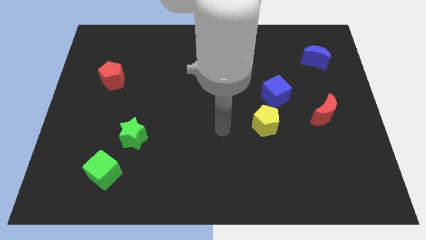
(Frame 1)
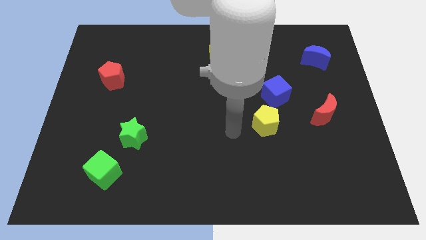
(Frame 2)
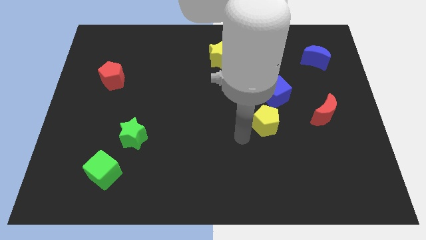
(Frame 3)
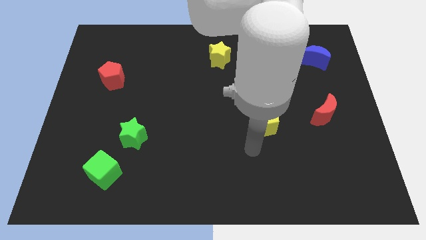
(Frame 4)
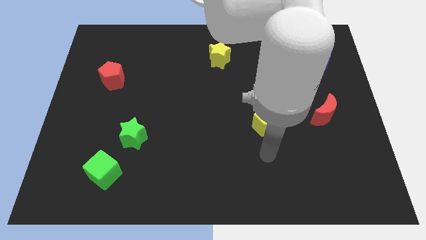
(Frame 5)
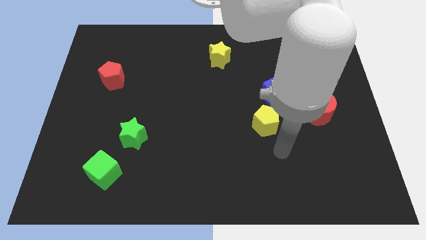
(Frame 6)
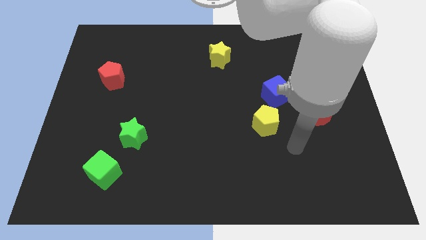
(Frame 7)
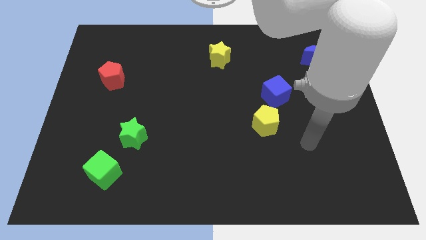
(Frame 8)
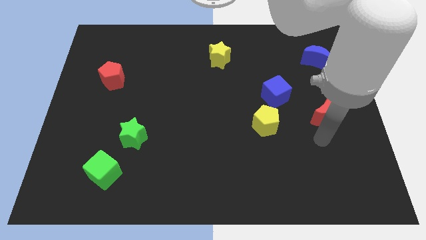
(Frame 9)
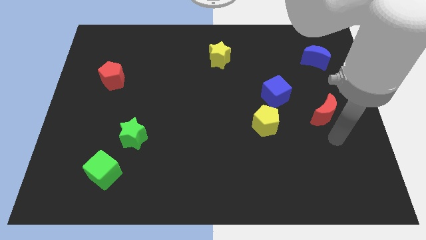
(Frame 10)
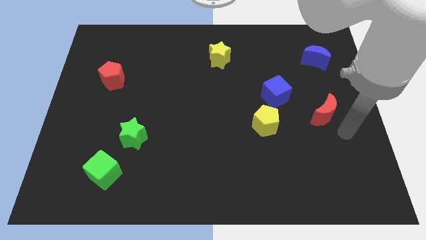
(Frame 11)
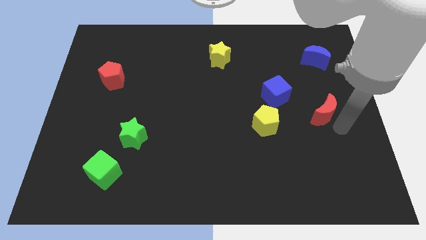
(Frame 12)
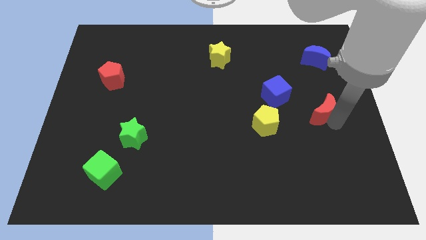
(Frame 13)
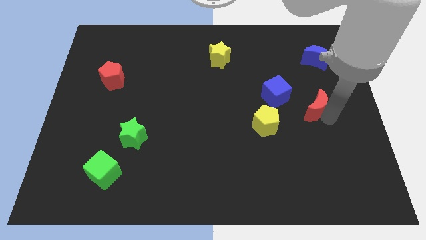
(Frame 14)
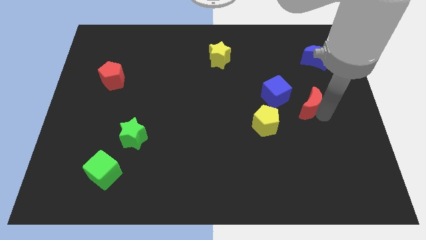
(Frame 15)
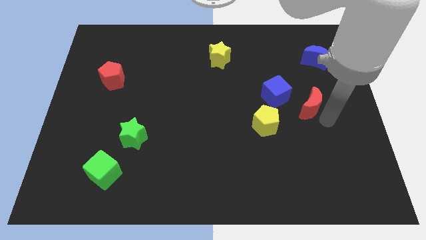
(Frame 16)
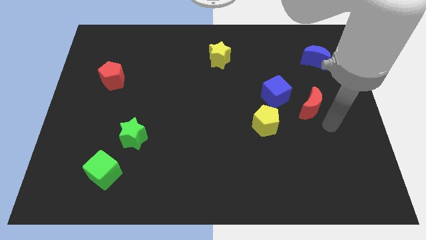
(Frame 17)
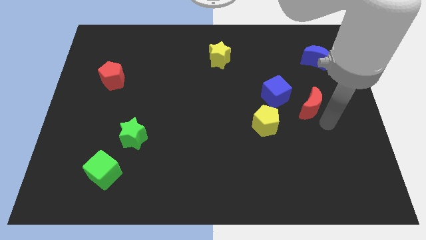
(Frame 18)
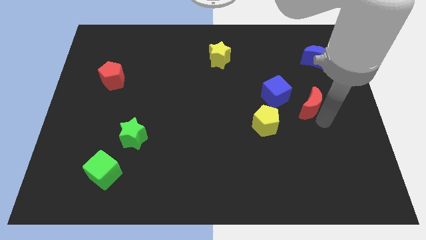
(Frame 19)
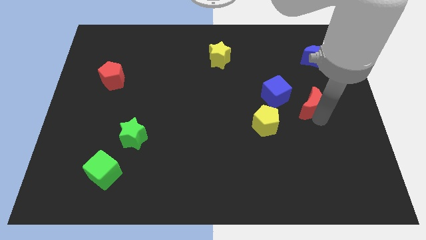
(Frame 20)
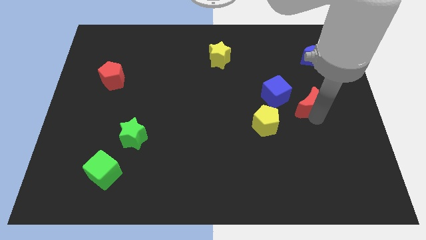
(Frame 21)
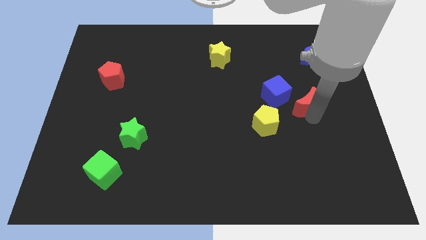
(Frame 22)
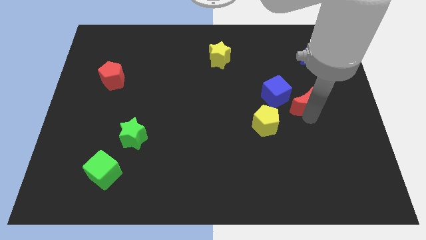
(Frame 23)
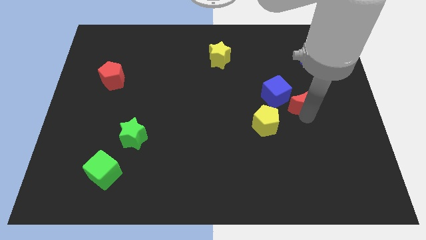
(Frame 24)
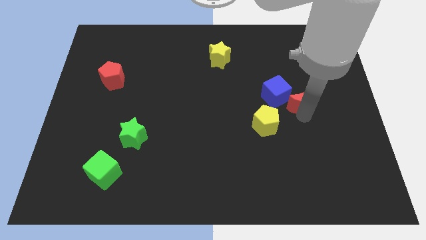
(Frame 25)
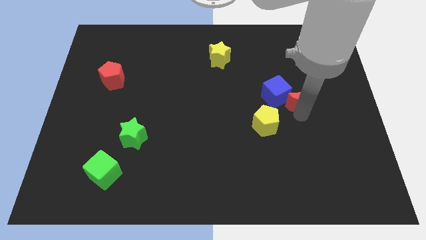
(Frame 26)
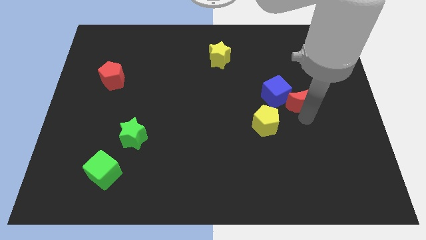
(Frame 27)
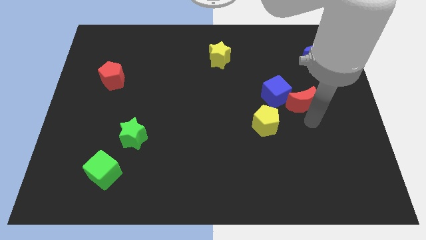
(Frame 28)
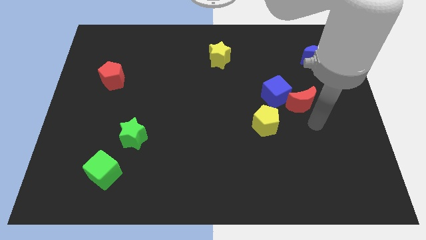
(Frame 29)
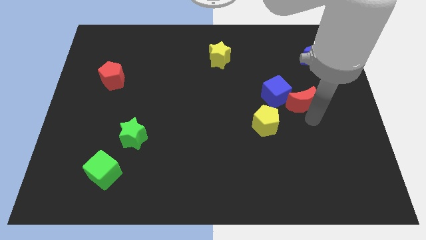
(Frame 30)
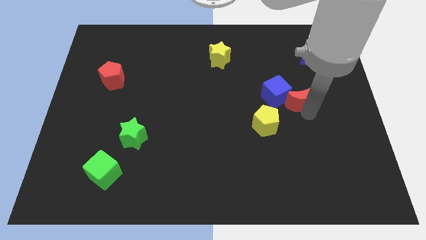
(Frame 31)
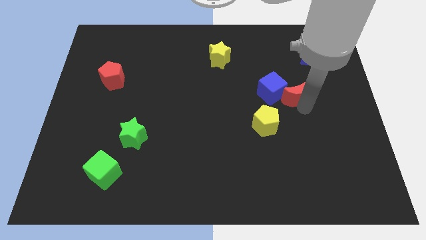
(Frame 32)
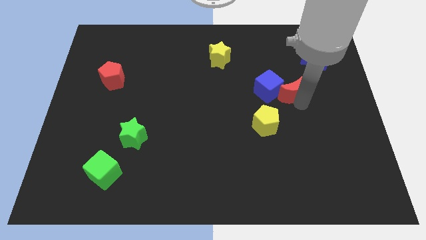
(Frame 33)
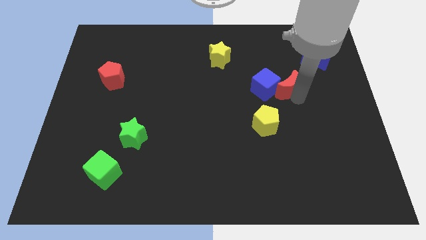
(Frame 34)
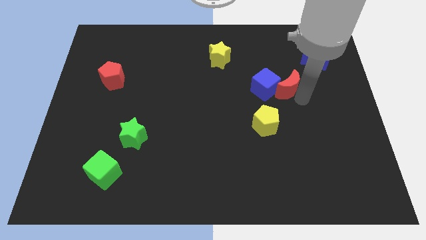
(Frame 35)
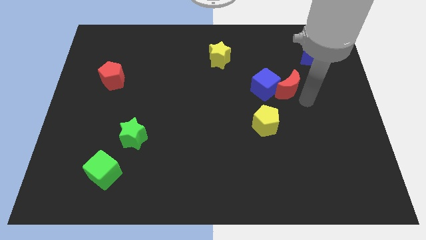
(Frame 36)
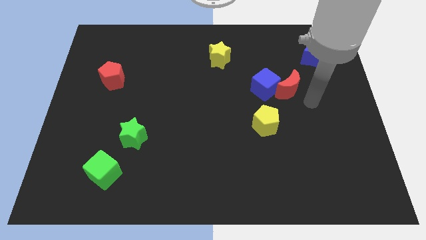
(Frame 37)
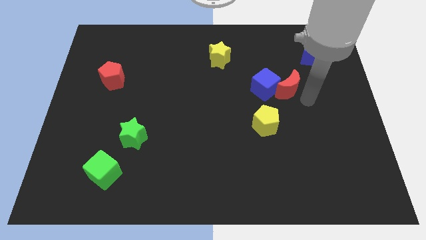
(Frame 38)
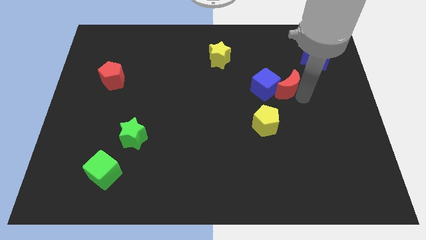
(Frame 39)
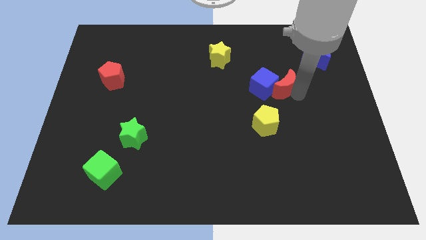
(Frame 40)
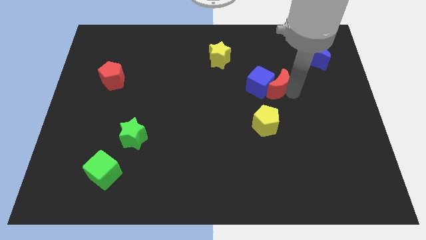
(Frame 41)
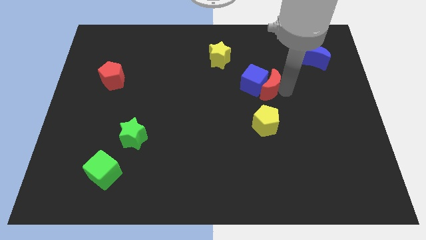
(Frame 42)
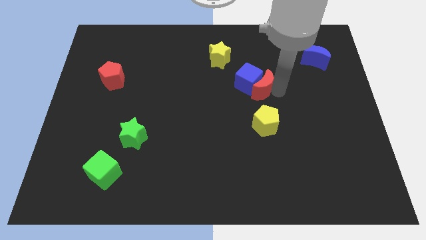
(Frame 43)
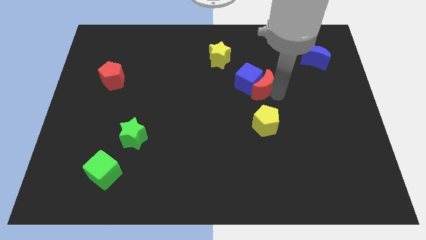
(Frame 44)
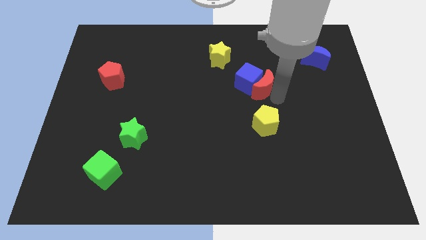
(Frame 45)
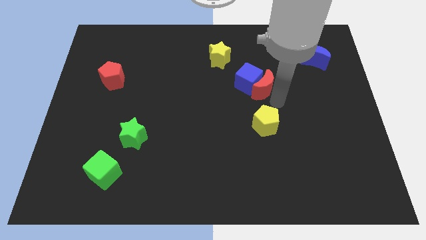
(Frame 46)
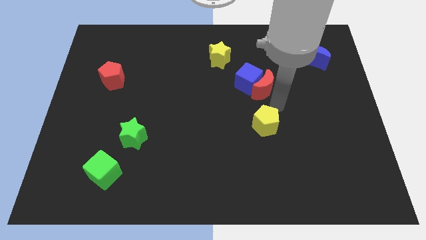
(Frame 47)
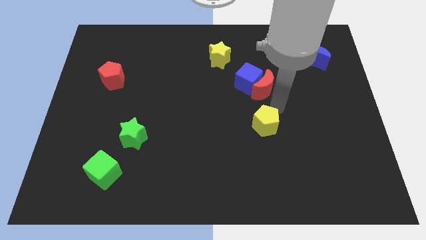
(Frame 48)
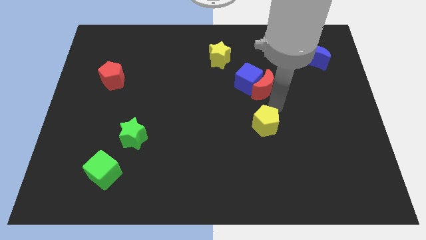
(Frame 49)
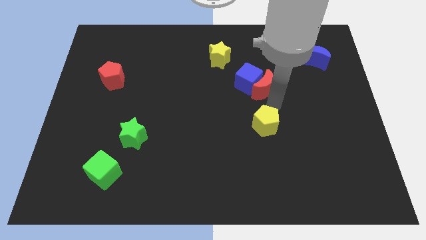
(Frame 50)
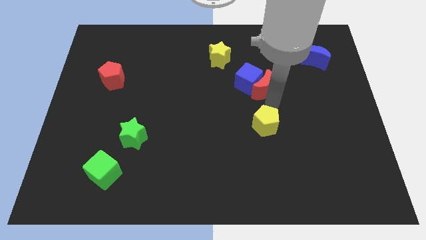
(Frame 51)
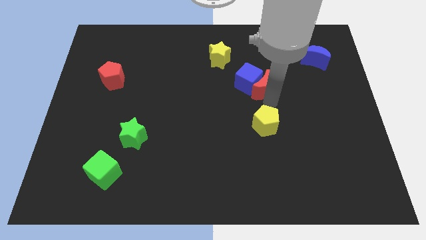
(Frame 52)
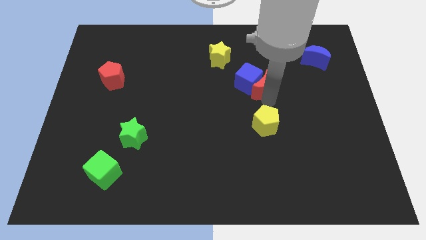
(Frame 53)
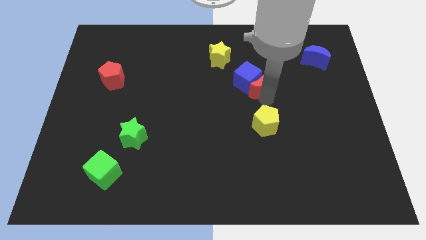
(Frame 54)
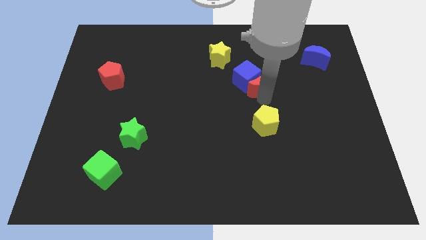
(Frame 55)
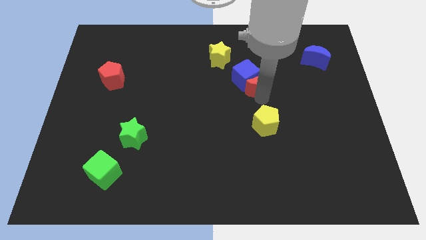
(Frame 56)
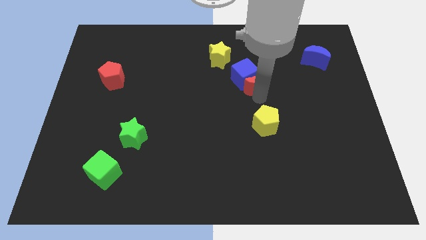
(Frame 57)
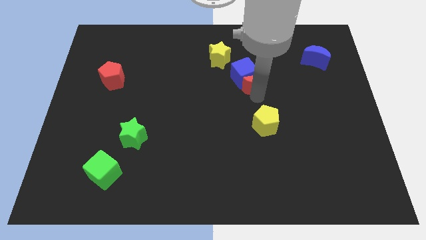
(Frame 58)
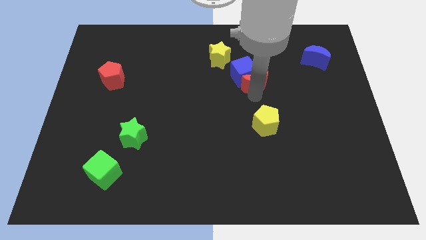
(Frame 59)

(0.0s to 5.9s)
push the red moon to the bottom right of the yellow star

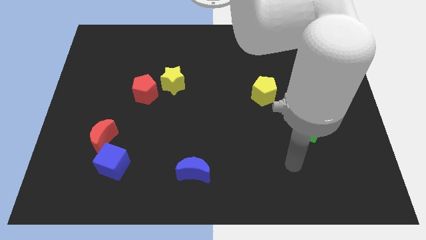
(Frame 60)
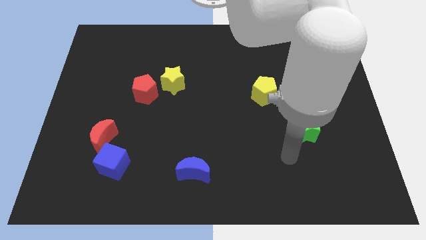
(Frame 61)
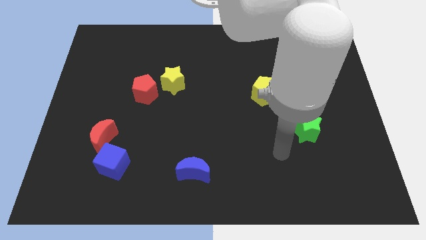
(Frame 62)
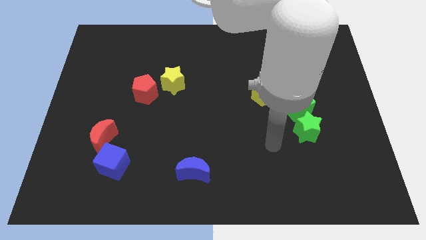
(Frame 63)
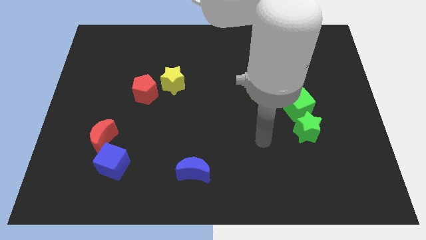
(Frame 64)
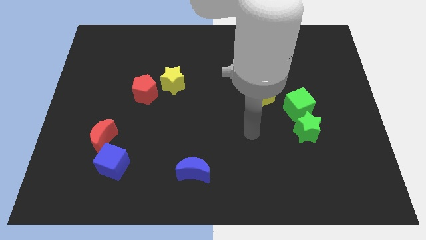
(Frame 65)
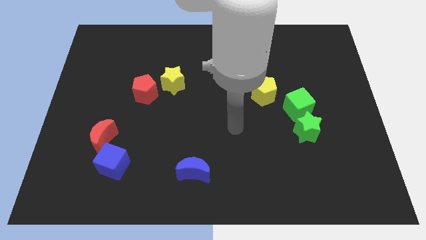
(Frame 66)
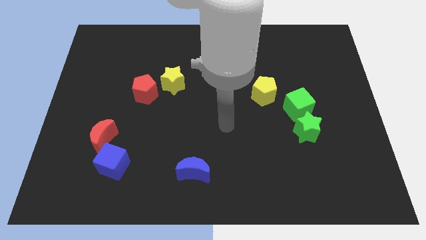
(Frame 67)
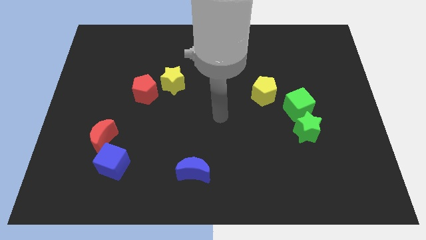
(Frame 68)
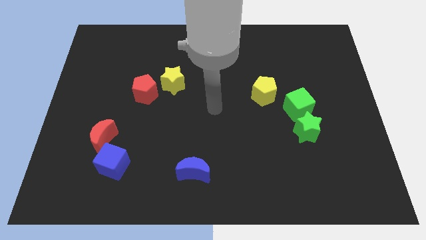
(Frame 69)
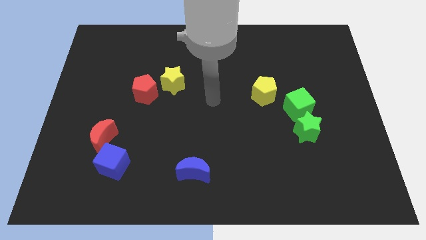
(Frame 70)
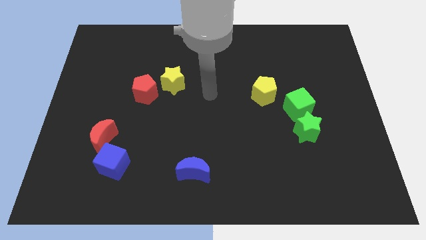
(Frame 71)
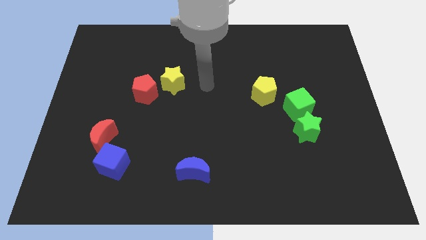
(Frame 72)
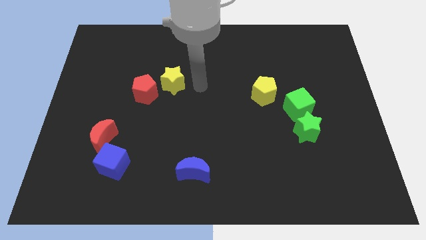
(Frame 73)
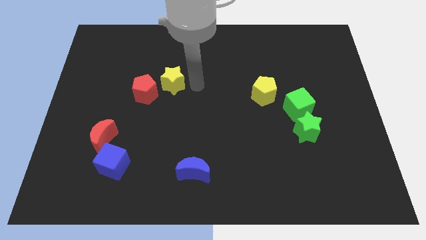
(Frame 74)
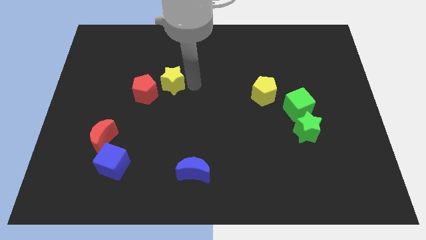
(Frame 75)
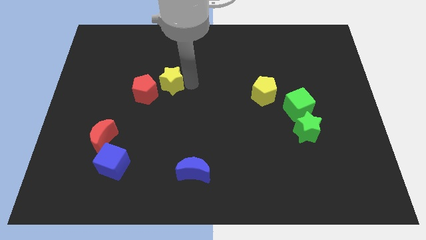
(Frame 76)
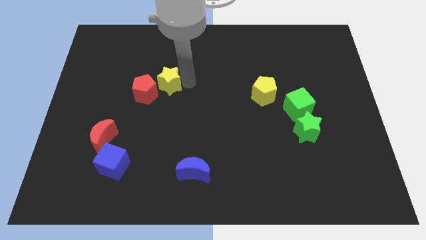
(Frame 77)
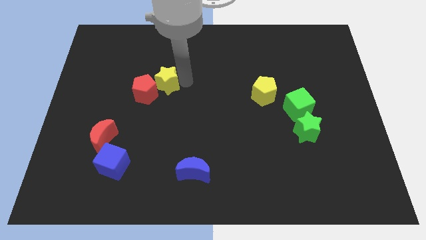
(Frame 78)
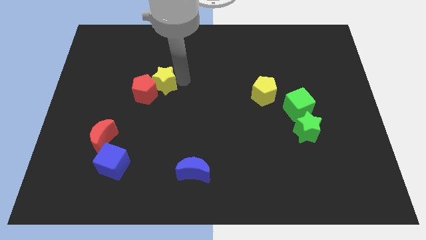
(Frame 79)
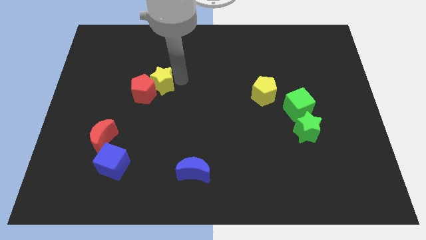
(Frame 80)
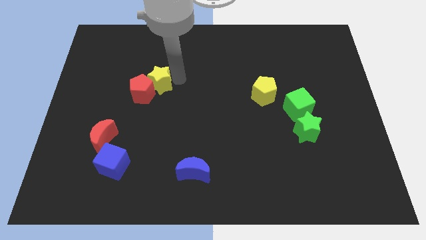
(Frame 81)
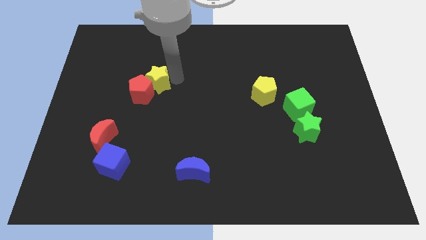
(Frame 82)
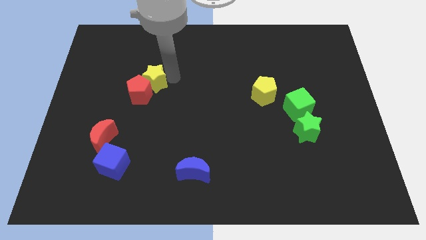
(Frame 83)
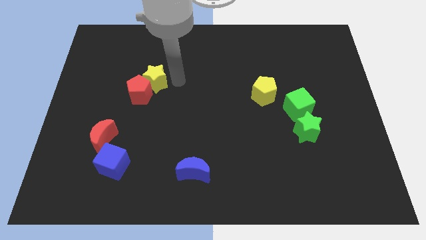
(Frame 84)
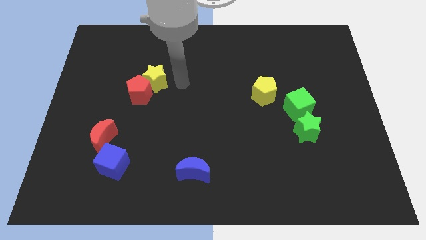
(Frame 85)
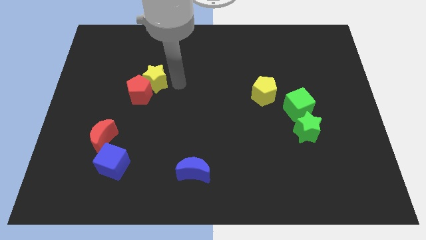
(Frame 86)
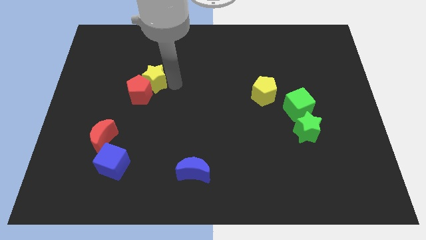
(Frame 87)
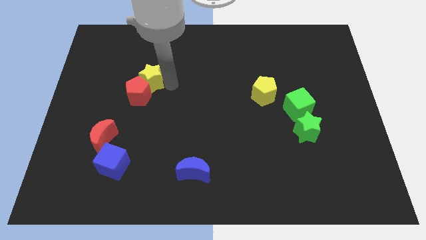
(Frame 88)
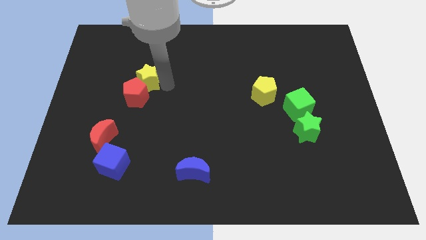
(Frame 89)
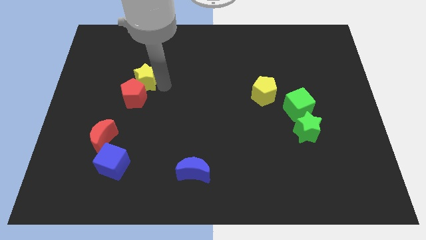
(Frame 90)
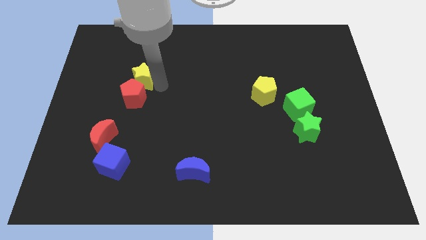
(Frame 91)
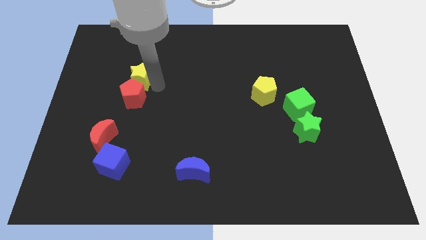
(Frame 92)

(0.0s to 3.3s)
put the yellow star to the top left side of the red pentagon
